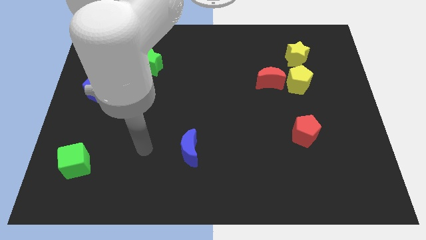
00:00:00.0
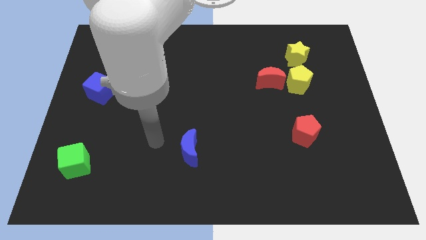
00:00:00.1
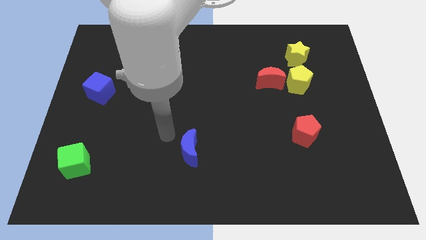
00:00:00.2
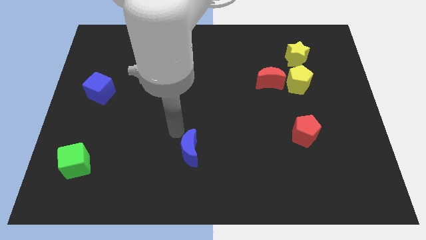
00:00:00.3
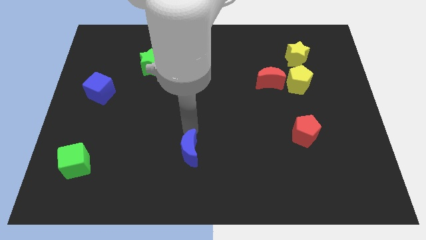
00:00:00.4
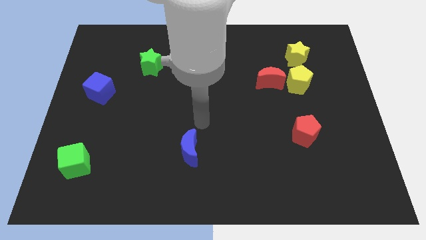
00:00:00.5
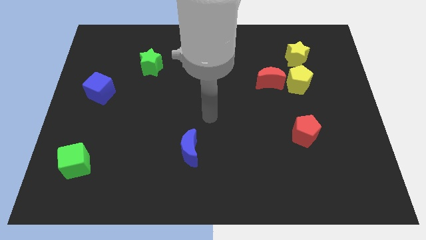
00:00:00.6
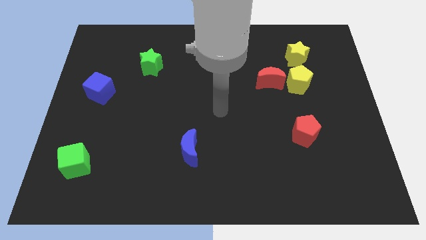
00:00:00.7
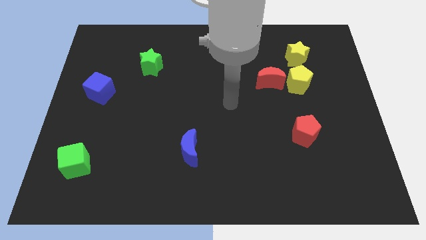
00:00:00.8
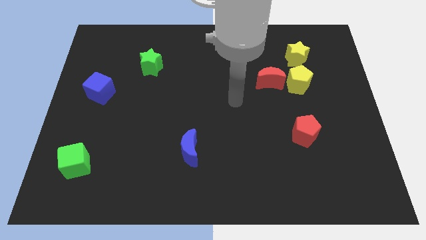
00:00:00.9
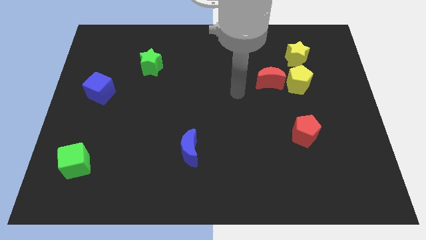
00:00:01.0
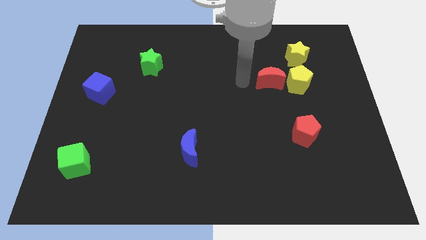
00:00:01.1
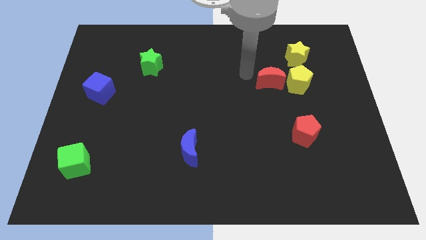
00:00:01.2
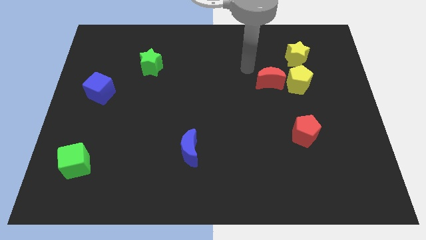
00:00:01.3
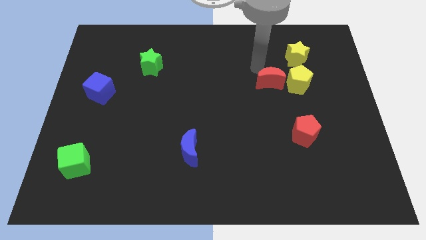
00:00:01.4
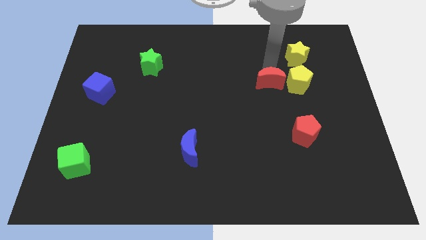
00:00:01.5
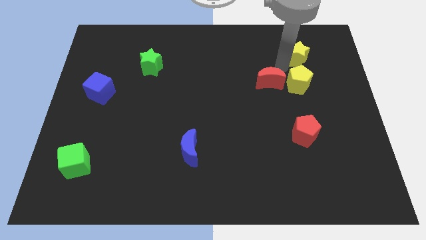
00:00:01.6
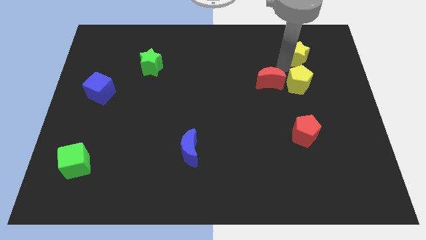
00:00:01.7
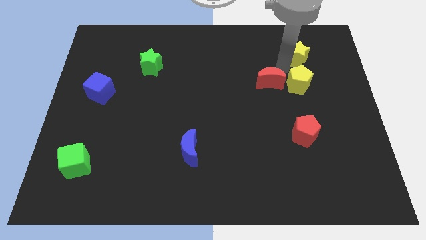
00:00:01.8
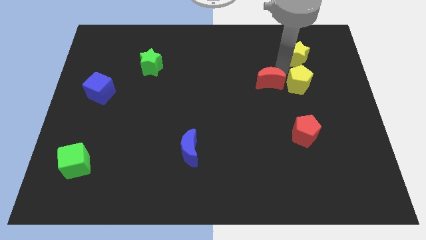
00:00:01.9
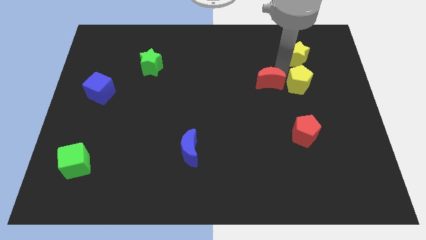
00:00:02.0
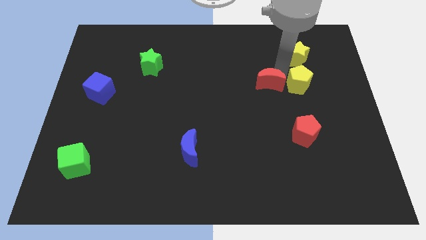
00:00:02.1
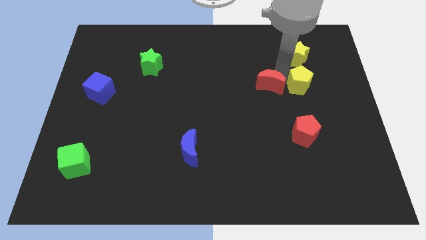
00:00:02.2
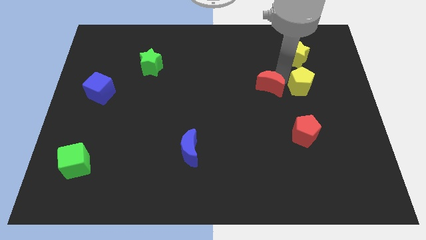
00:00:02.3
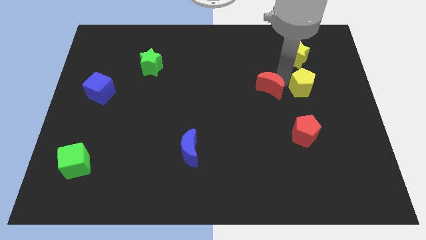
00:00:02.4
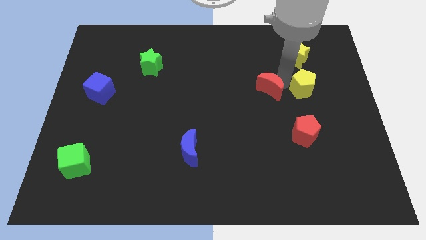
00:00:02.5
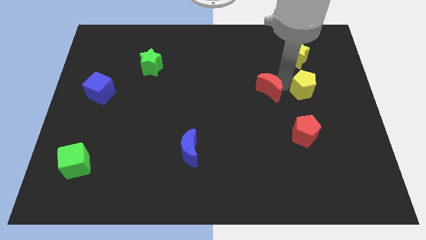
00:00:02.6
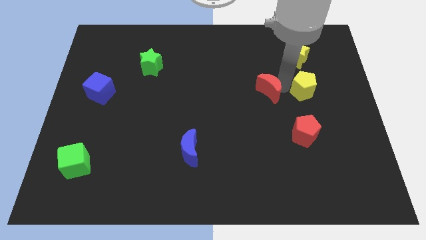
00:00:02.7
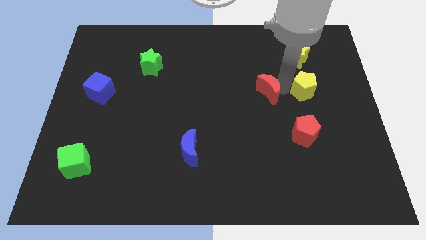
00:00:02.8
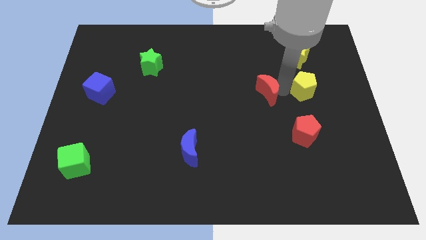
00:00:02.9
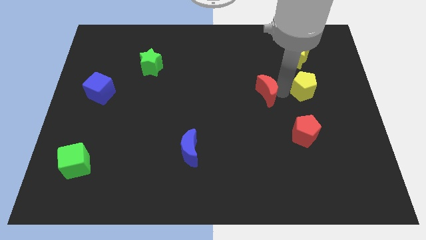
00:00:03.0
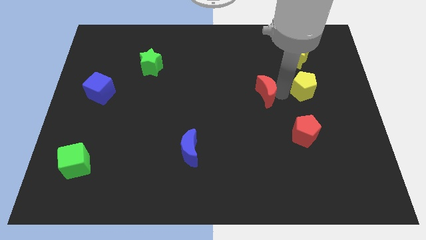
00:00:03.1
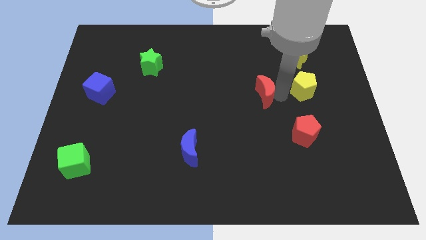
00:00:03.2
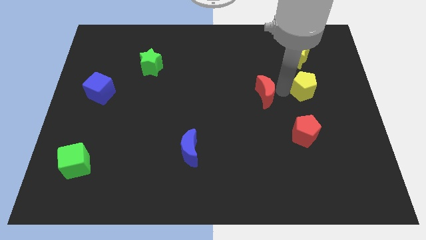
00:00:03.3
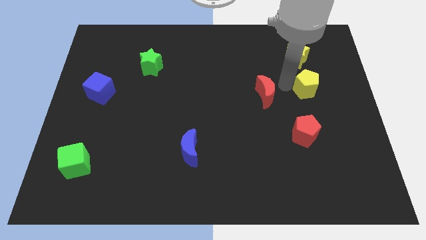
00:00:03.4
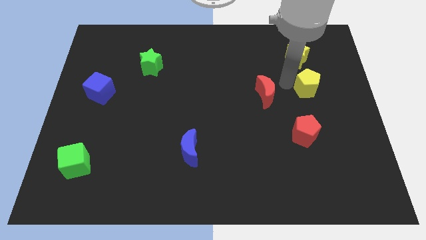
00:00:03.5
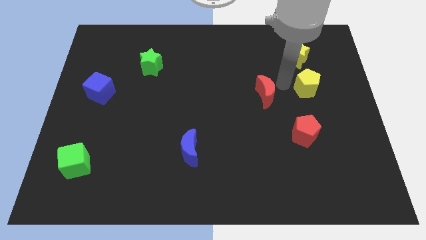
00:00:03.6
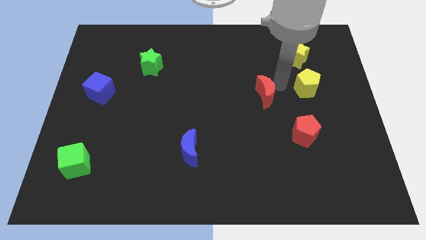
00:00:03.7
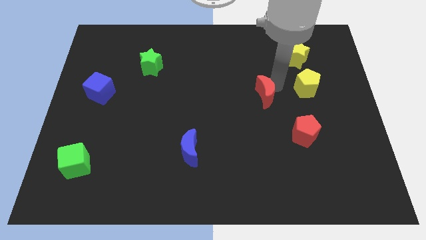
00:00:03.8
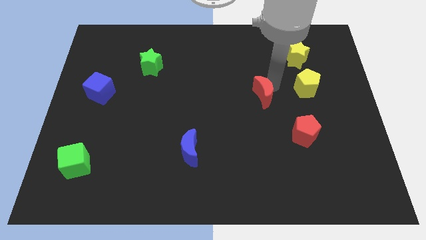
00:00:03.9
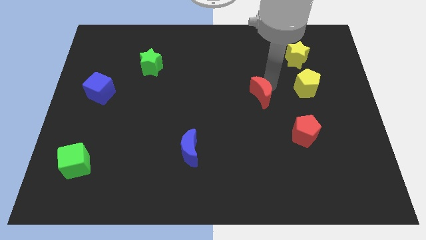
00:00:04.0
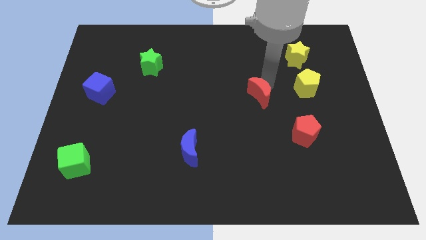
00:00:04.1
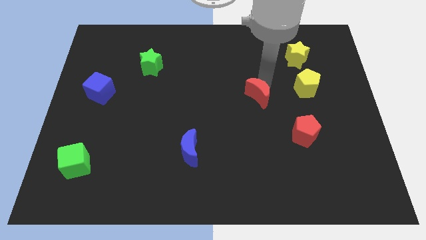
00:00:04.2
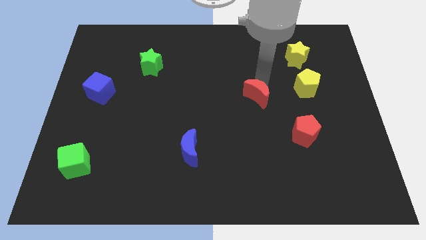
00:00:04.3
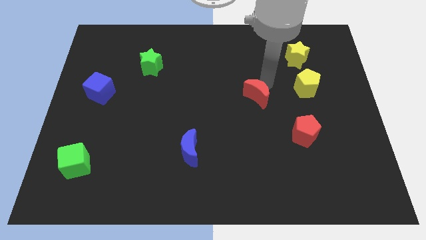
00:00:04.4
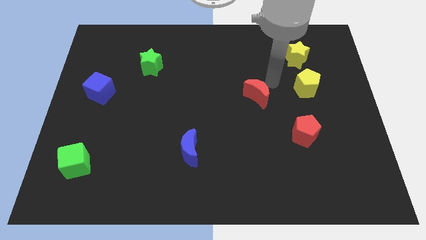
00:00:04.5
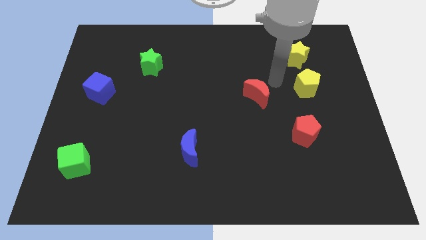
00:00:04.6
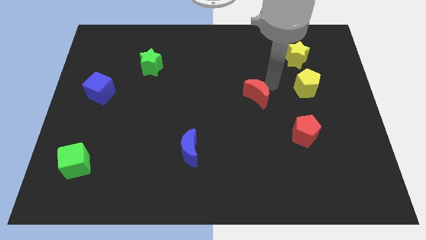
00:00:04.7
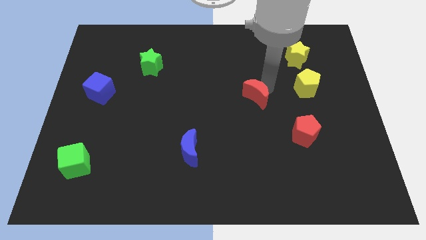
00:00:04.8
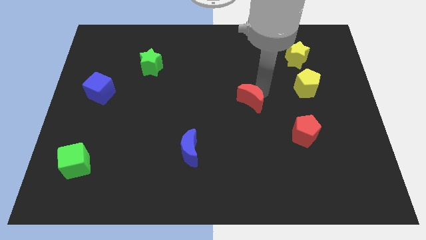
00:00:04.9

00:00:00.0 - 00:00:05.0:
move the red moon down and left a bit

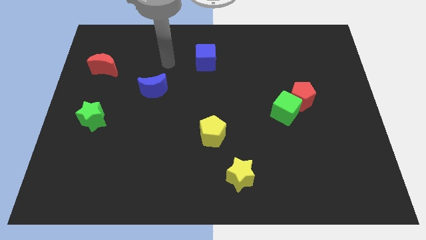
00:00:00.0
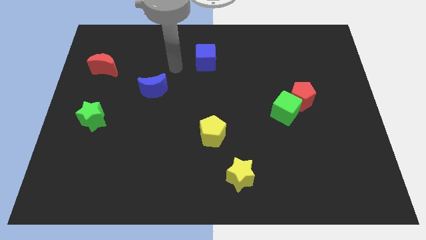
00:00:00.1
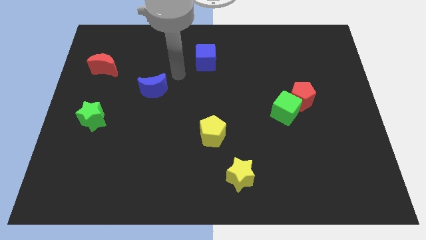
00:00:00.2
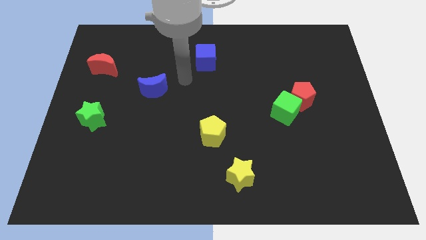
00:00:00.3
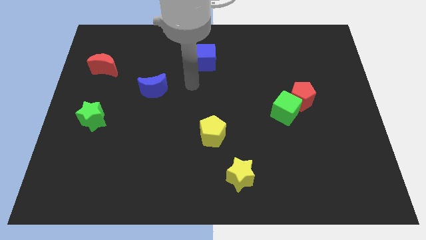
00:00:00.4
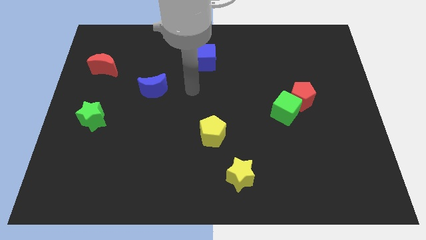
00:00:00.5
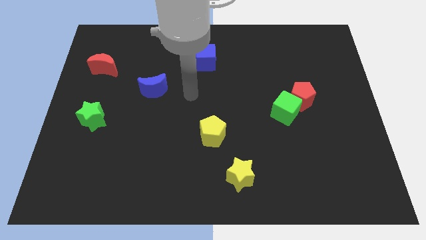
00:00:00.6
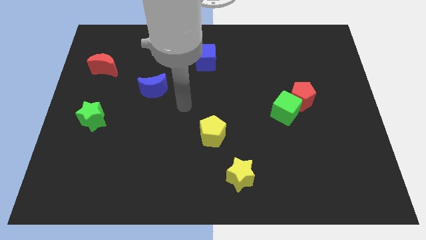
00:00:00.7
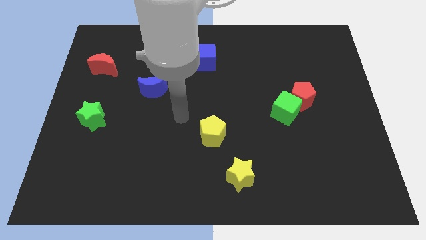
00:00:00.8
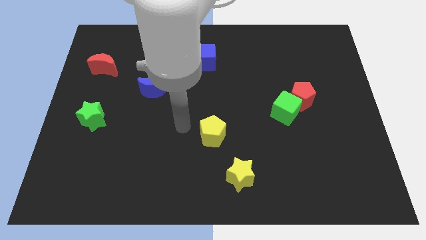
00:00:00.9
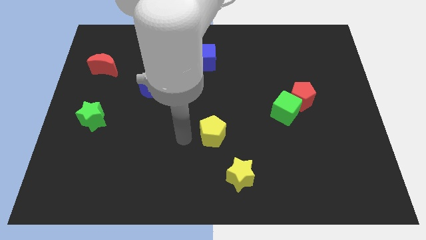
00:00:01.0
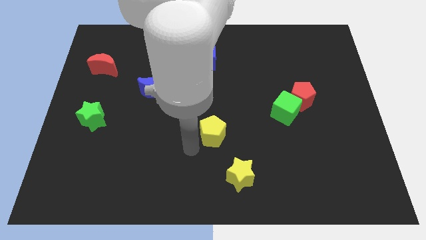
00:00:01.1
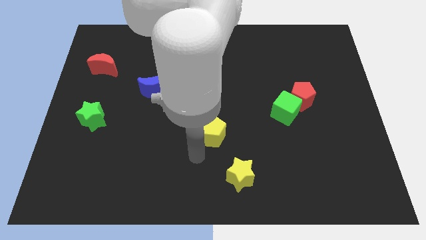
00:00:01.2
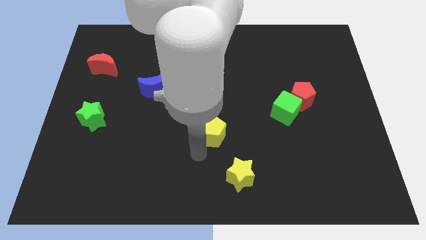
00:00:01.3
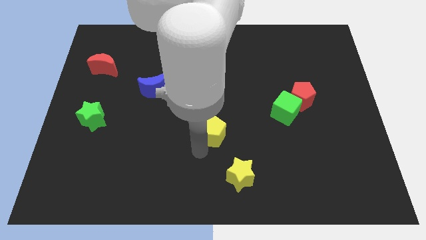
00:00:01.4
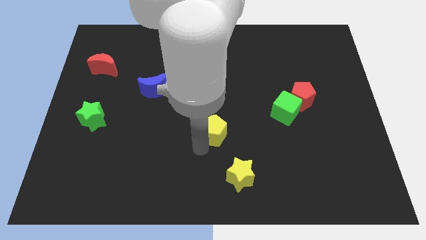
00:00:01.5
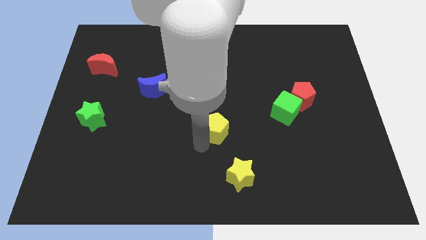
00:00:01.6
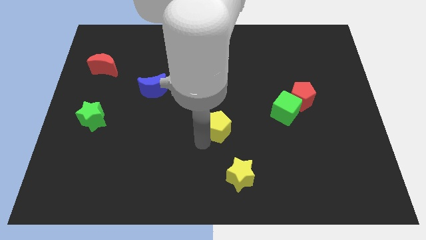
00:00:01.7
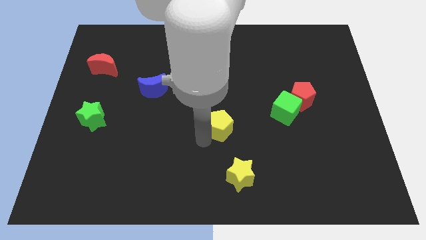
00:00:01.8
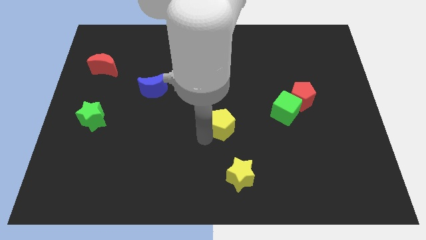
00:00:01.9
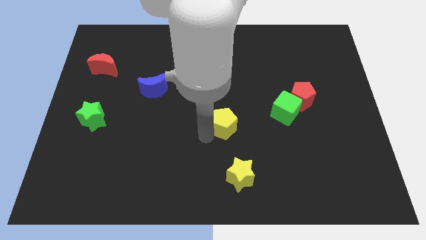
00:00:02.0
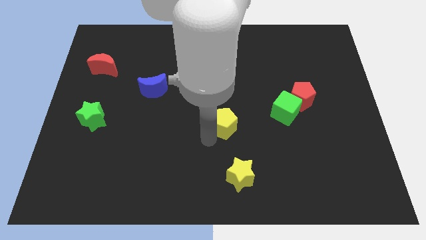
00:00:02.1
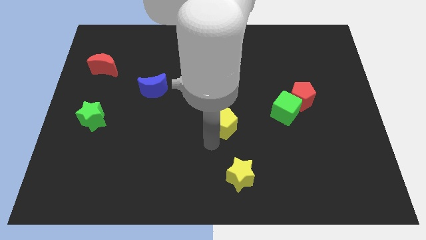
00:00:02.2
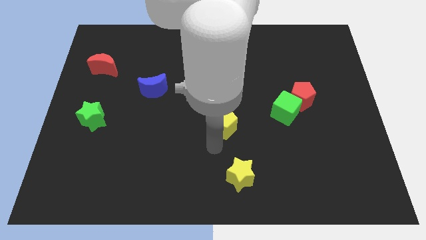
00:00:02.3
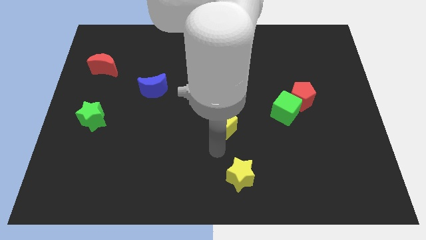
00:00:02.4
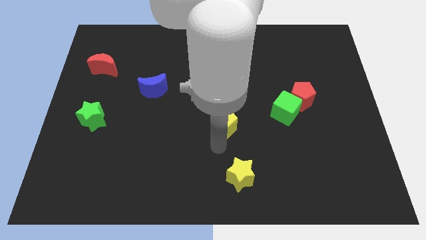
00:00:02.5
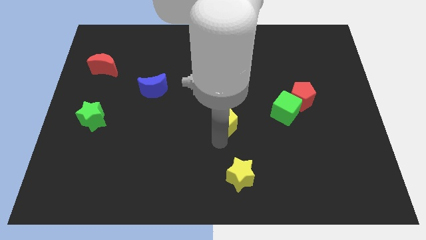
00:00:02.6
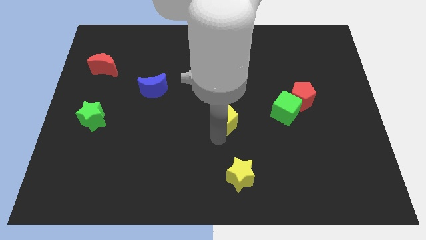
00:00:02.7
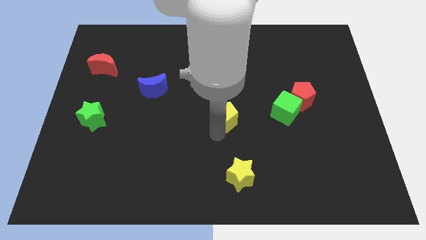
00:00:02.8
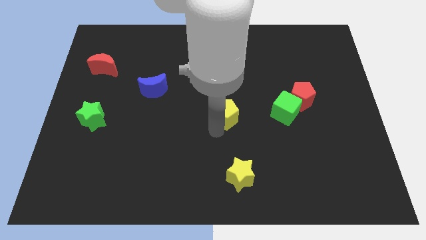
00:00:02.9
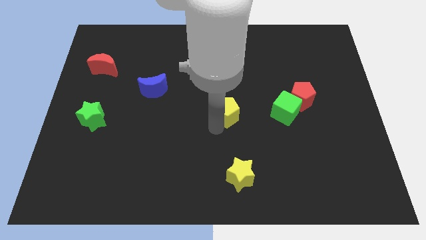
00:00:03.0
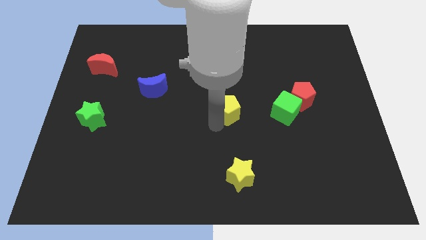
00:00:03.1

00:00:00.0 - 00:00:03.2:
push the yellow pentagon up and to the right a bit
